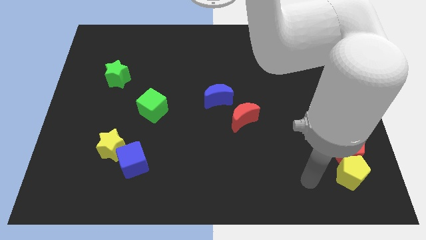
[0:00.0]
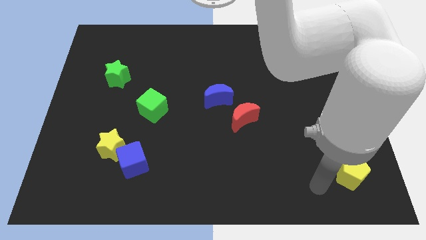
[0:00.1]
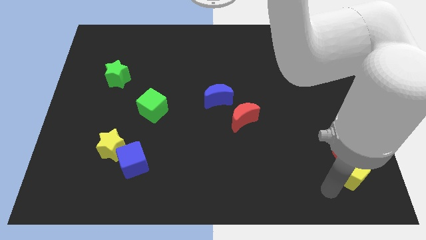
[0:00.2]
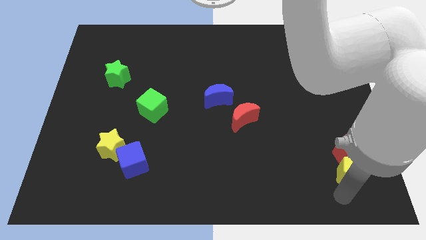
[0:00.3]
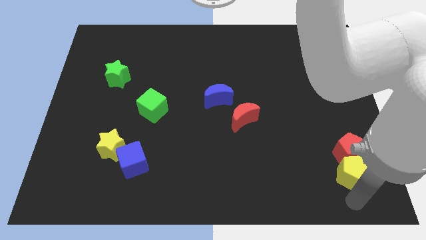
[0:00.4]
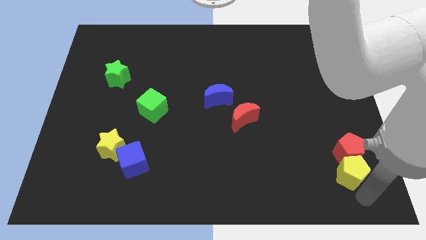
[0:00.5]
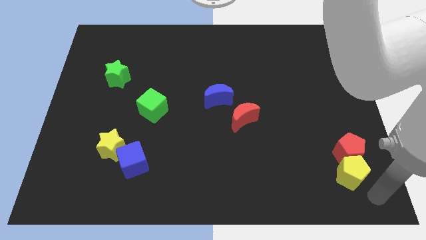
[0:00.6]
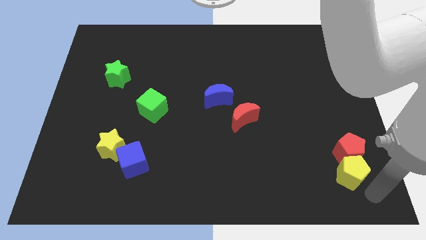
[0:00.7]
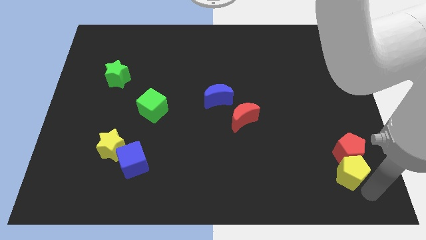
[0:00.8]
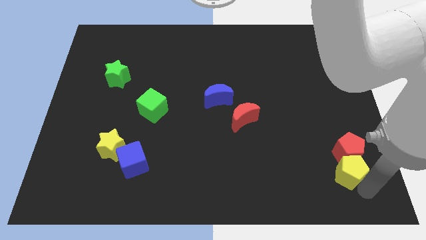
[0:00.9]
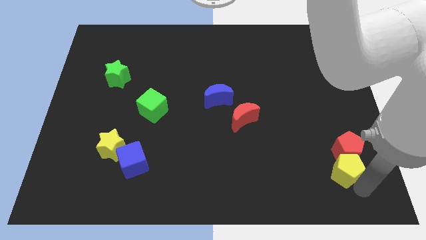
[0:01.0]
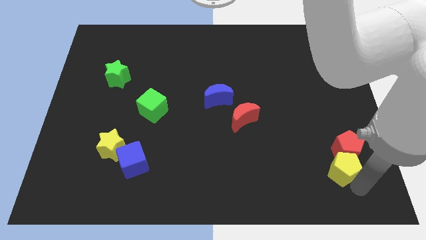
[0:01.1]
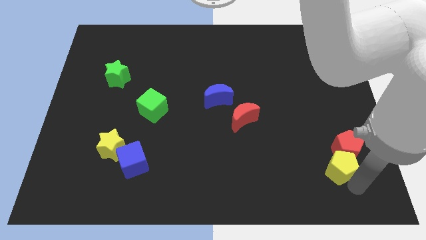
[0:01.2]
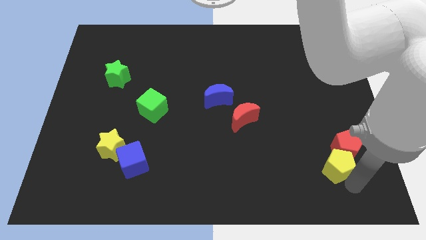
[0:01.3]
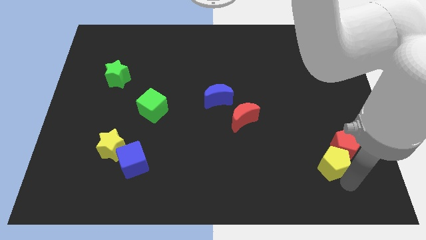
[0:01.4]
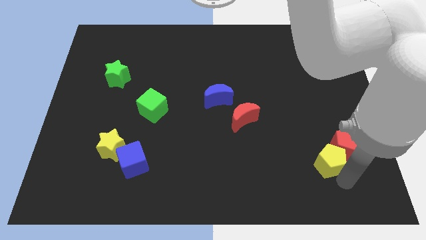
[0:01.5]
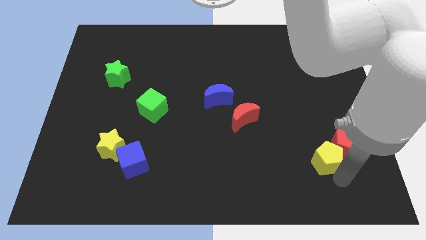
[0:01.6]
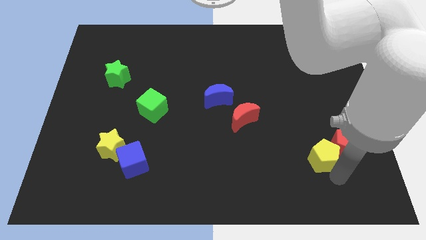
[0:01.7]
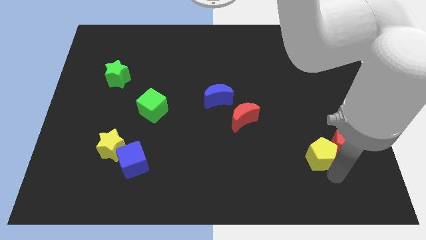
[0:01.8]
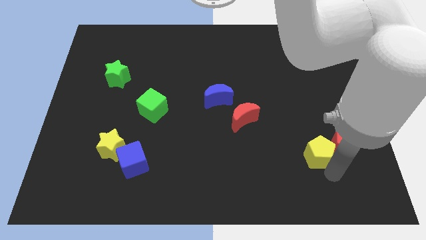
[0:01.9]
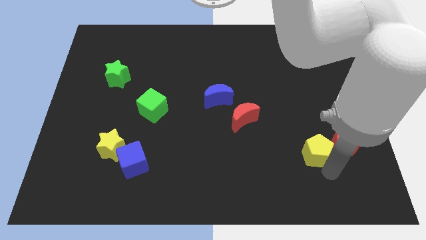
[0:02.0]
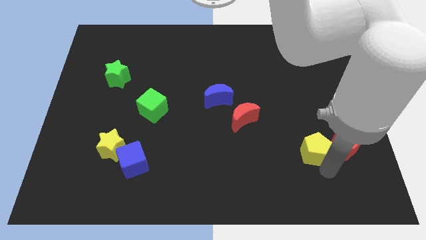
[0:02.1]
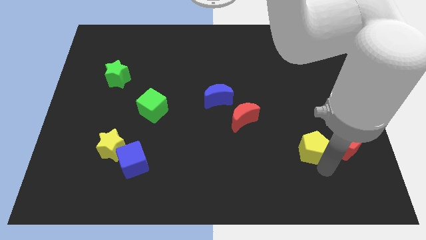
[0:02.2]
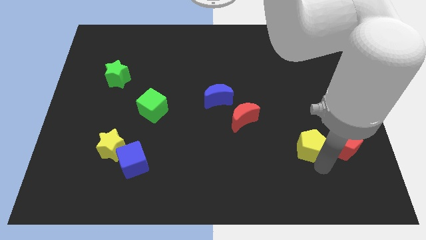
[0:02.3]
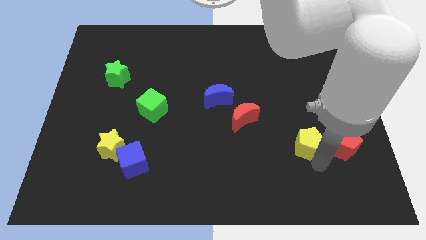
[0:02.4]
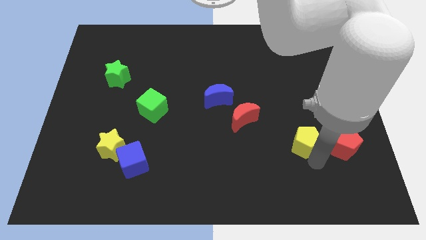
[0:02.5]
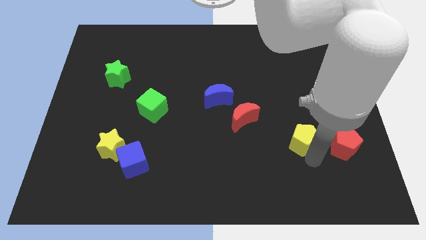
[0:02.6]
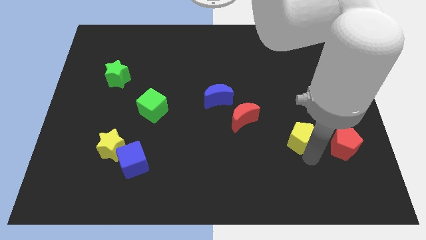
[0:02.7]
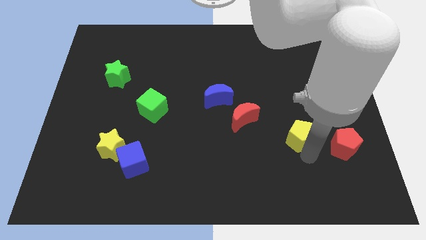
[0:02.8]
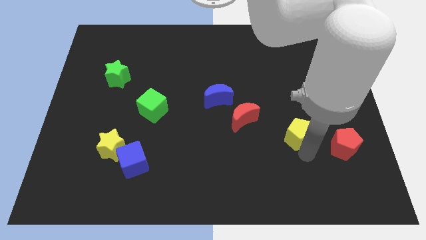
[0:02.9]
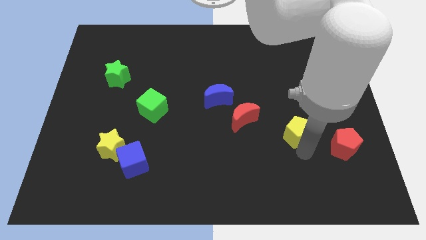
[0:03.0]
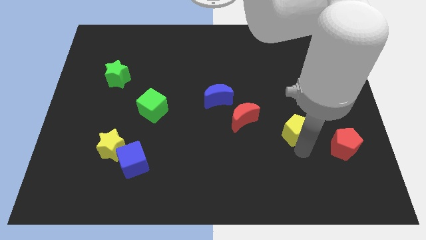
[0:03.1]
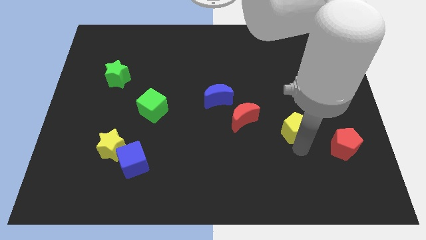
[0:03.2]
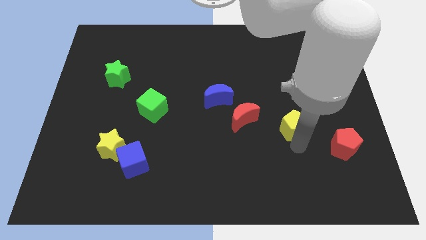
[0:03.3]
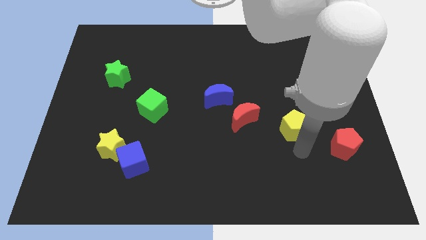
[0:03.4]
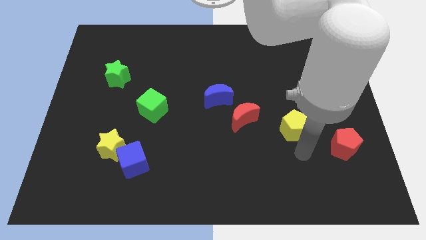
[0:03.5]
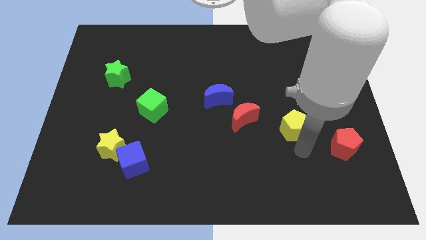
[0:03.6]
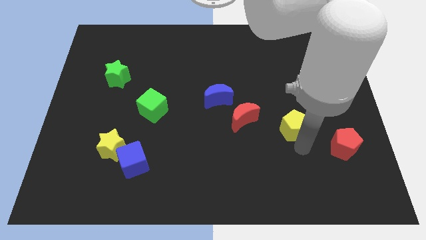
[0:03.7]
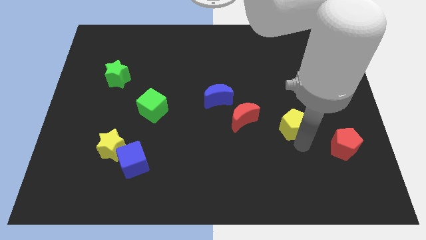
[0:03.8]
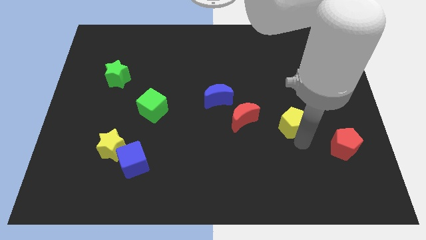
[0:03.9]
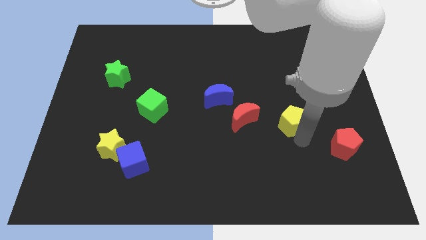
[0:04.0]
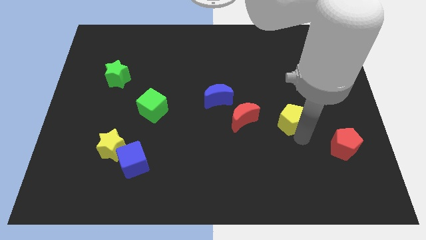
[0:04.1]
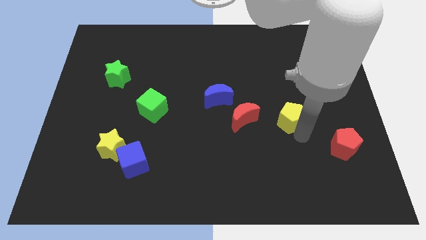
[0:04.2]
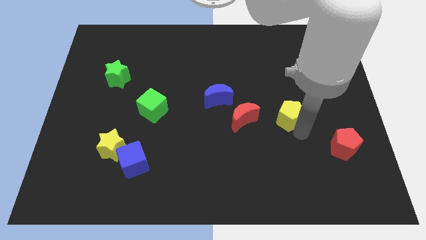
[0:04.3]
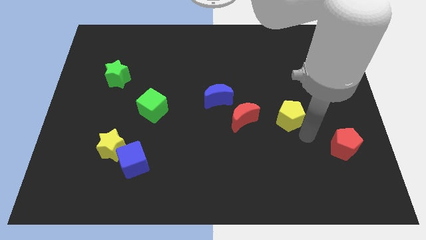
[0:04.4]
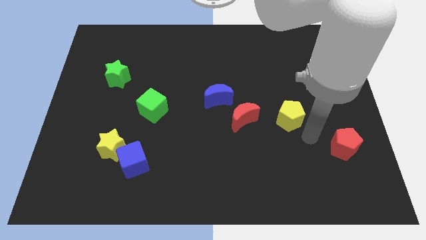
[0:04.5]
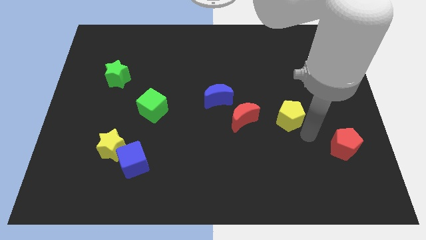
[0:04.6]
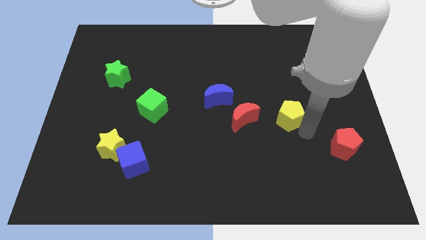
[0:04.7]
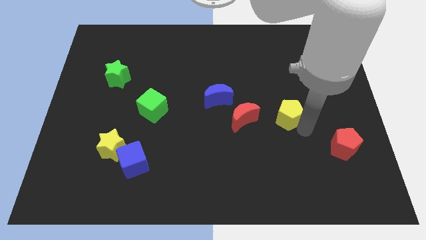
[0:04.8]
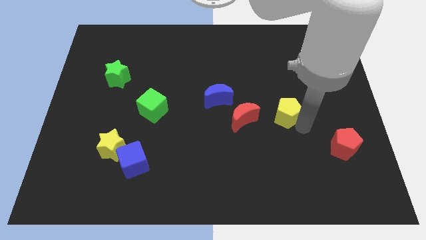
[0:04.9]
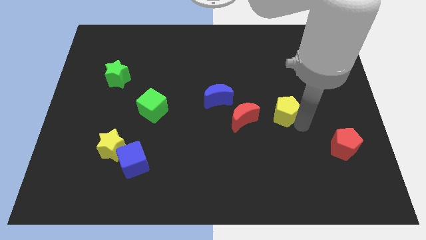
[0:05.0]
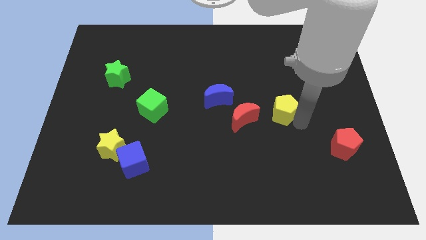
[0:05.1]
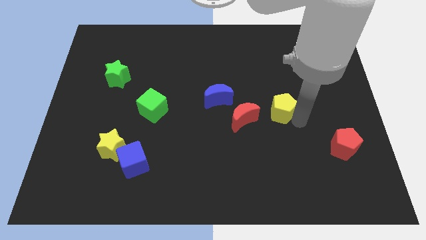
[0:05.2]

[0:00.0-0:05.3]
slide the yellow pentagon upwards and to the left

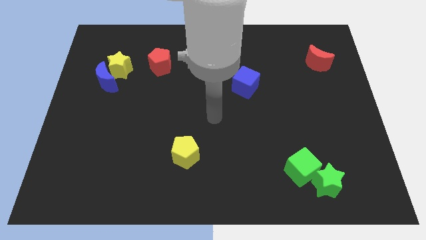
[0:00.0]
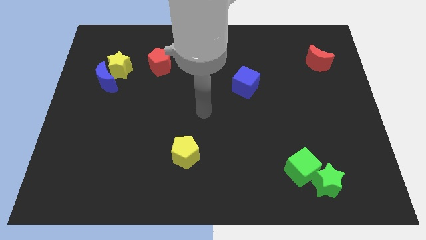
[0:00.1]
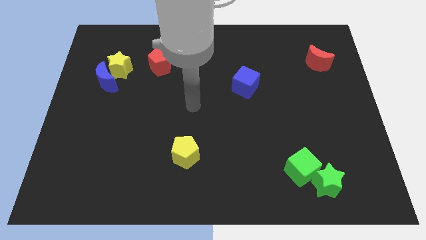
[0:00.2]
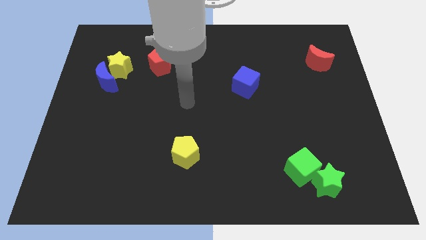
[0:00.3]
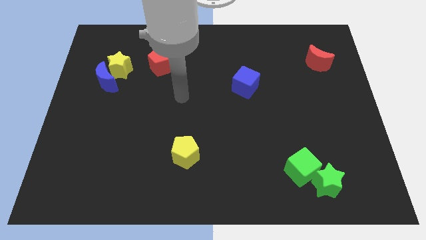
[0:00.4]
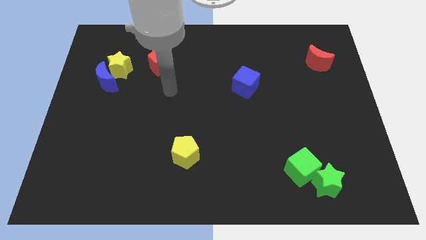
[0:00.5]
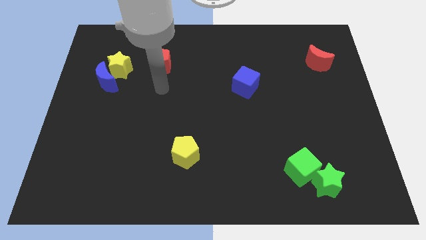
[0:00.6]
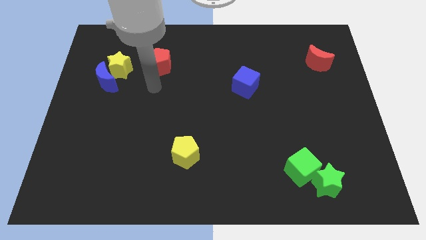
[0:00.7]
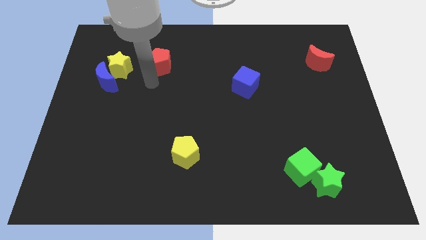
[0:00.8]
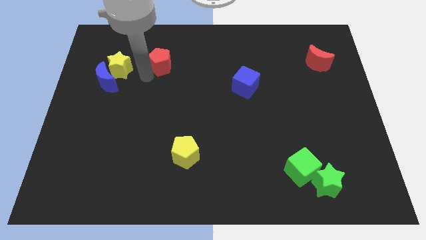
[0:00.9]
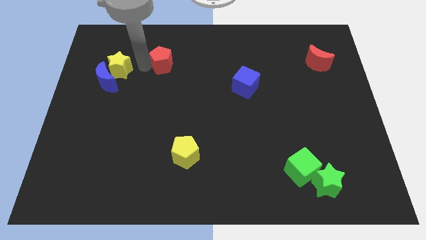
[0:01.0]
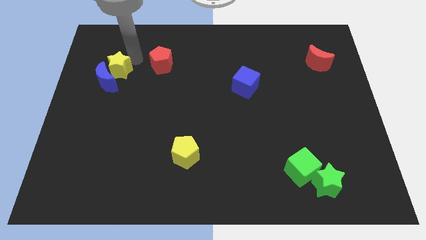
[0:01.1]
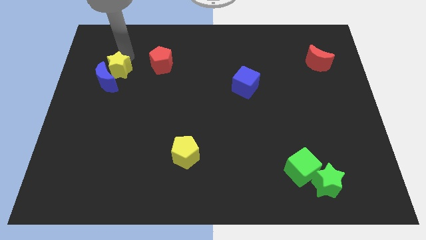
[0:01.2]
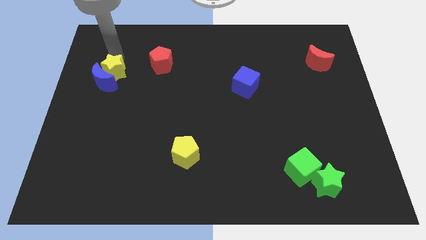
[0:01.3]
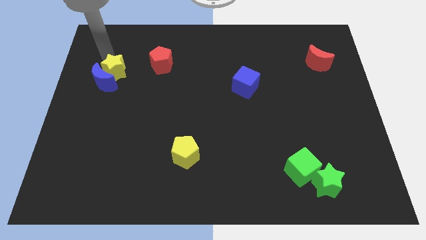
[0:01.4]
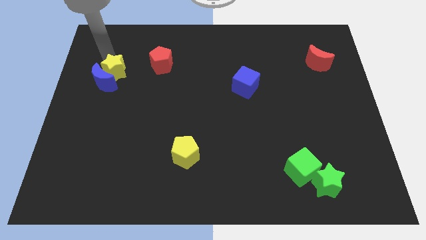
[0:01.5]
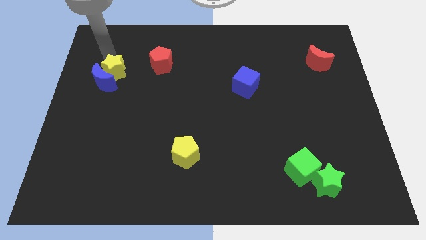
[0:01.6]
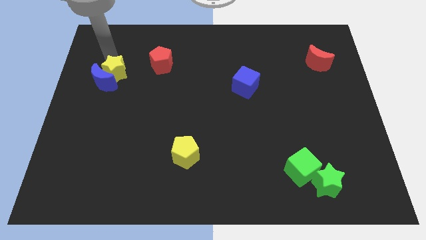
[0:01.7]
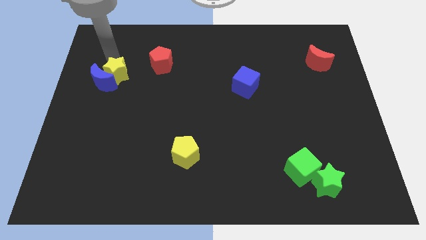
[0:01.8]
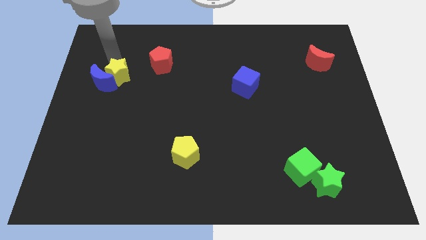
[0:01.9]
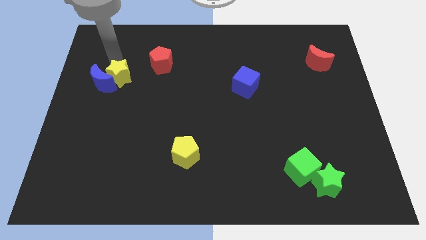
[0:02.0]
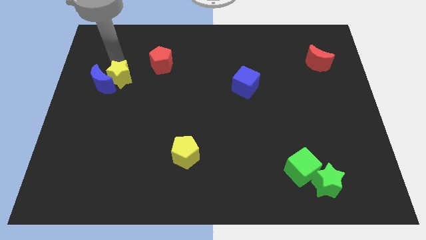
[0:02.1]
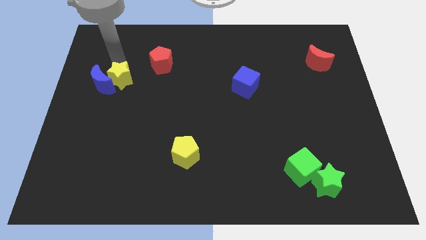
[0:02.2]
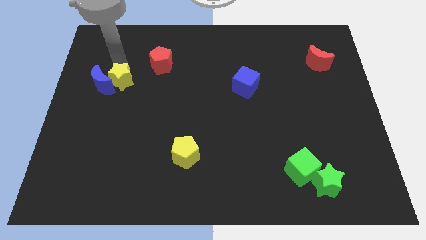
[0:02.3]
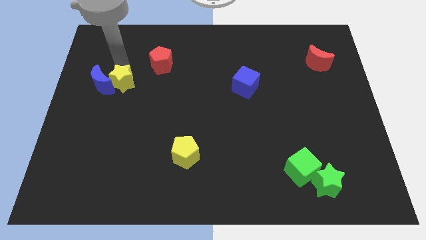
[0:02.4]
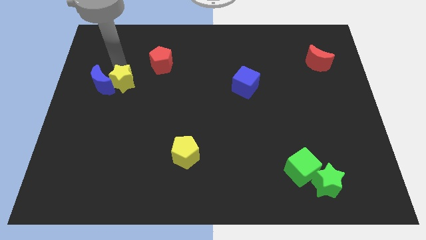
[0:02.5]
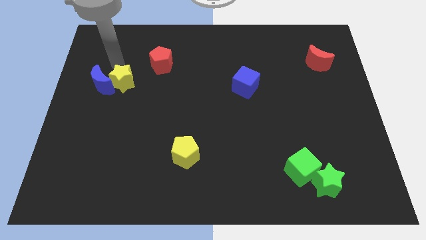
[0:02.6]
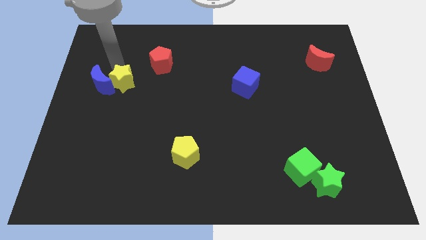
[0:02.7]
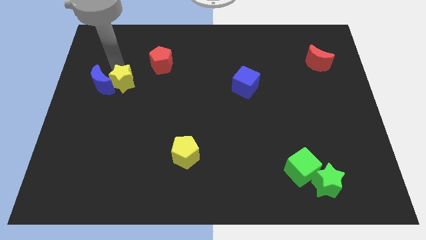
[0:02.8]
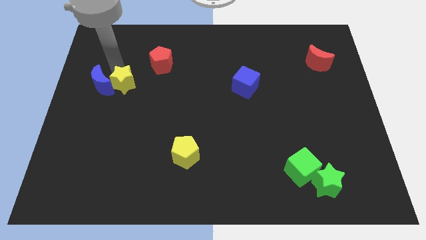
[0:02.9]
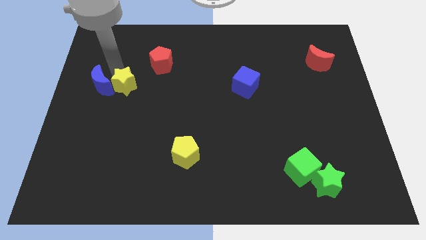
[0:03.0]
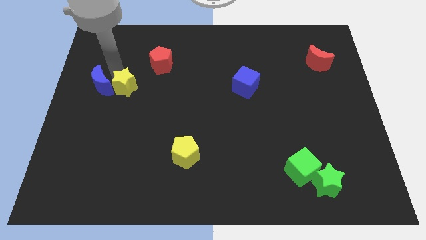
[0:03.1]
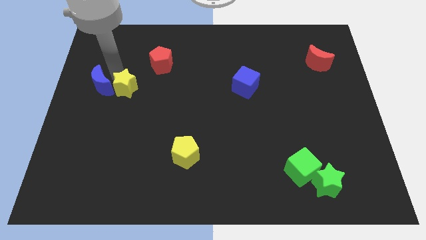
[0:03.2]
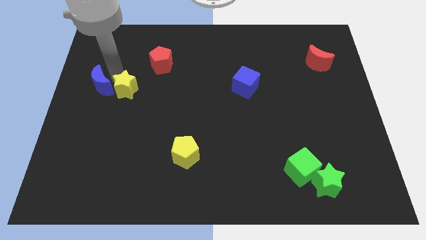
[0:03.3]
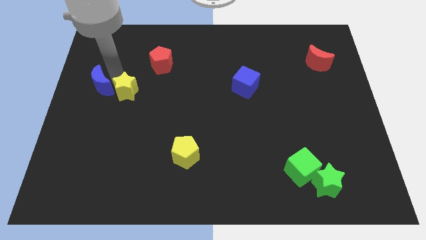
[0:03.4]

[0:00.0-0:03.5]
push the yellow star a little downwards
